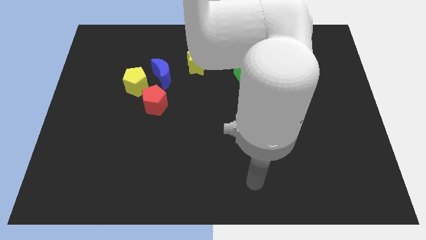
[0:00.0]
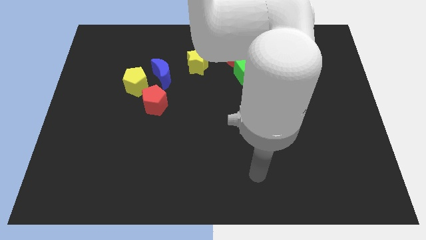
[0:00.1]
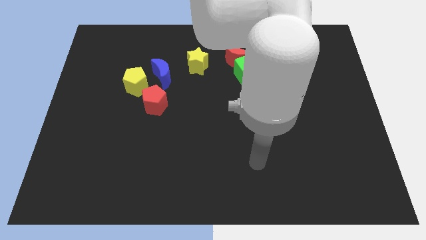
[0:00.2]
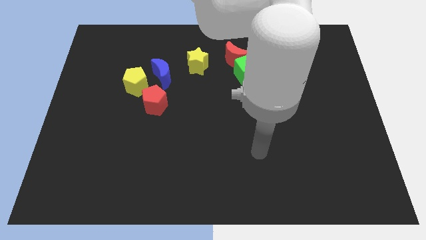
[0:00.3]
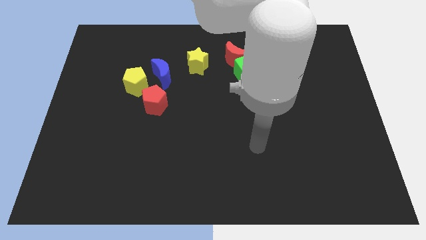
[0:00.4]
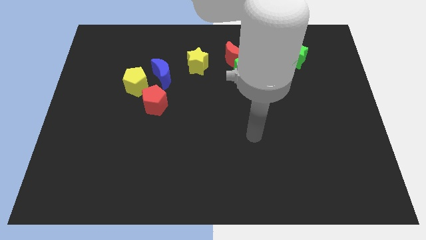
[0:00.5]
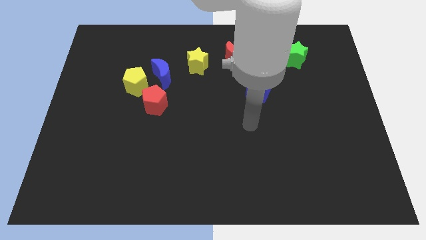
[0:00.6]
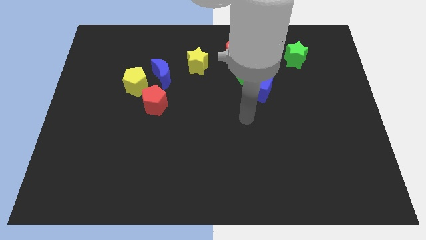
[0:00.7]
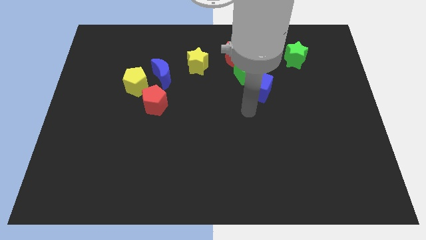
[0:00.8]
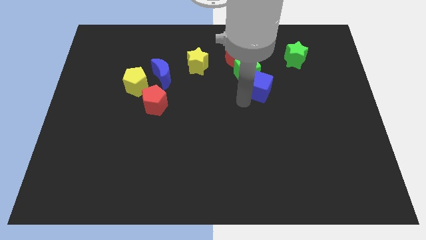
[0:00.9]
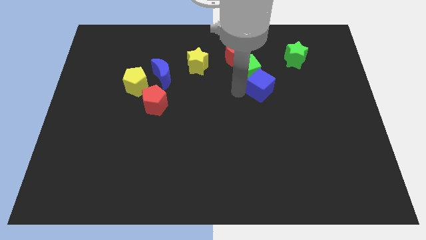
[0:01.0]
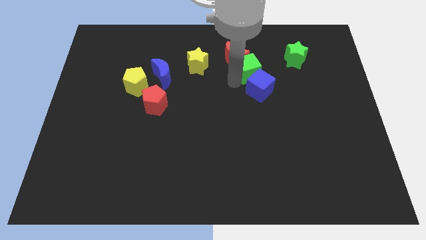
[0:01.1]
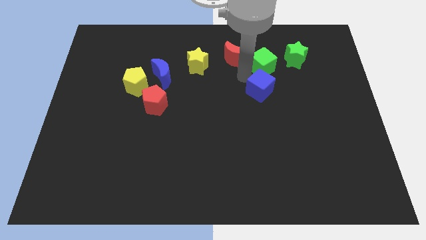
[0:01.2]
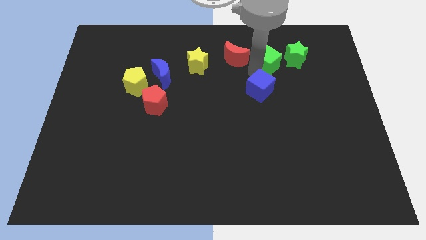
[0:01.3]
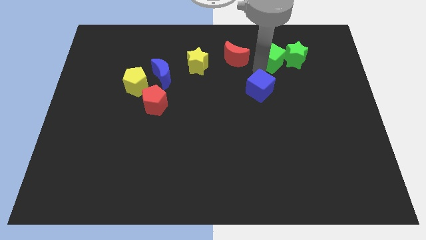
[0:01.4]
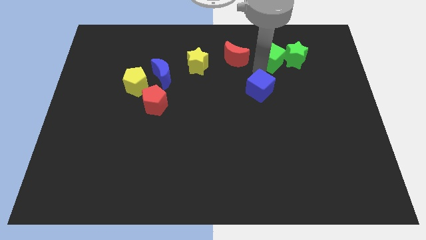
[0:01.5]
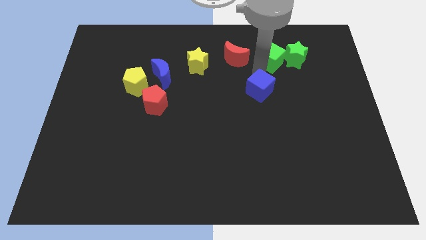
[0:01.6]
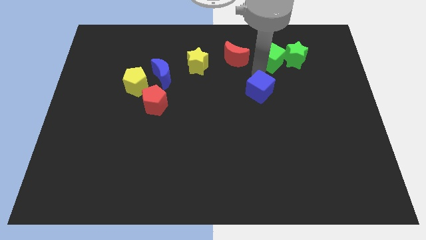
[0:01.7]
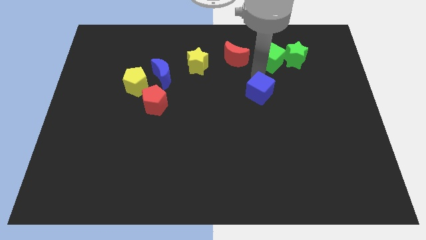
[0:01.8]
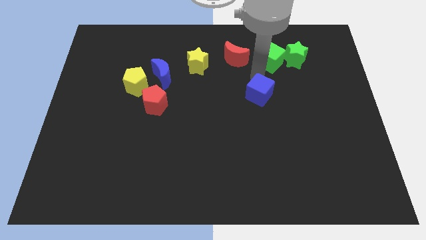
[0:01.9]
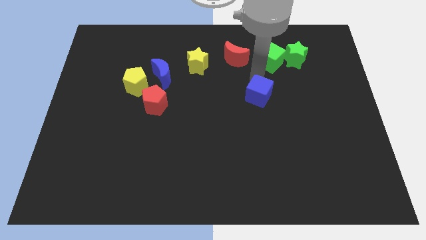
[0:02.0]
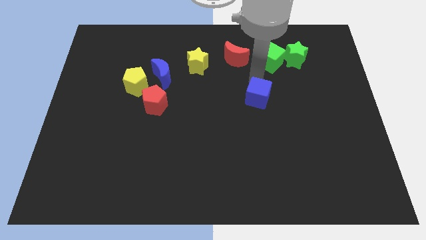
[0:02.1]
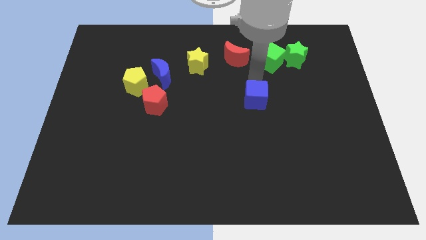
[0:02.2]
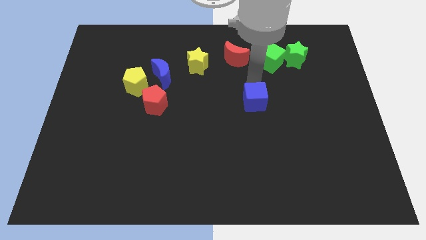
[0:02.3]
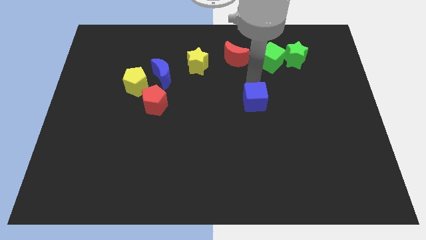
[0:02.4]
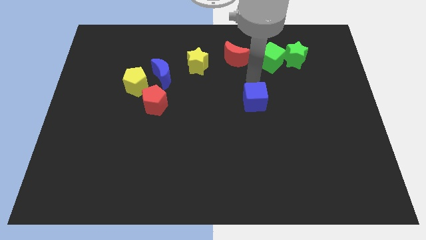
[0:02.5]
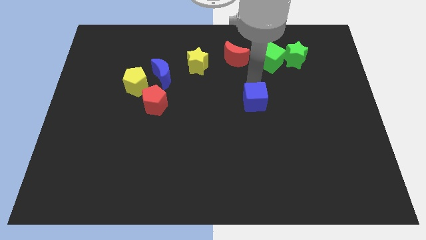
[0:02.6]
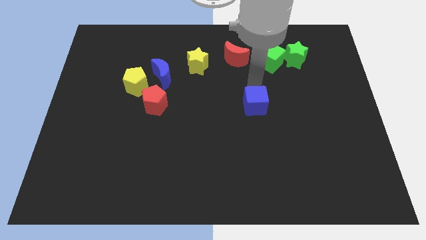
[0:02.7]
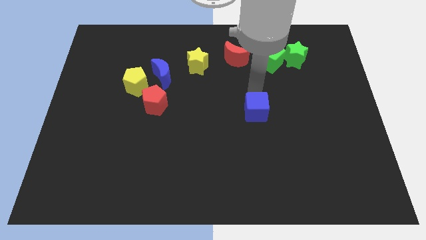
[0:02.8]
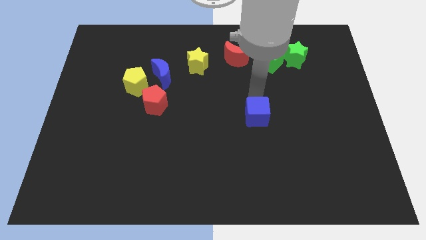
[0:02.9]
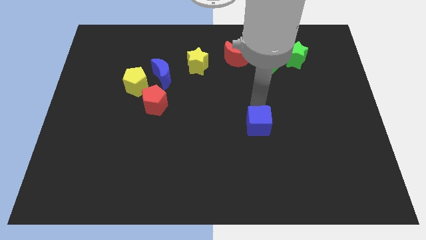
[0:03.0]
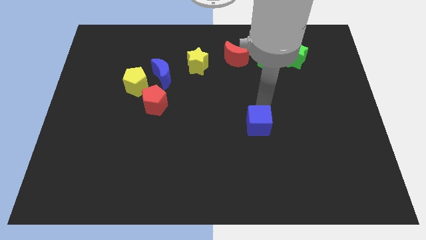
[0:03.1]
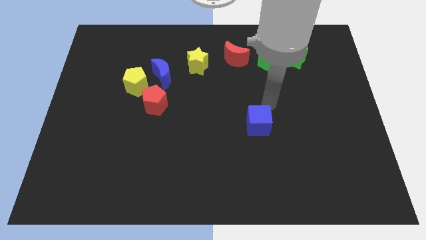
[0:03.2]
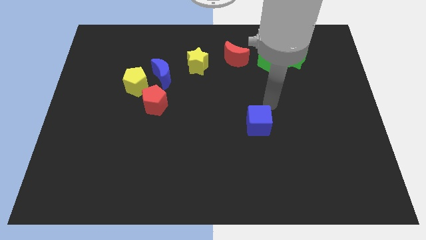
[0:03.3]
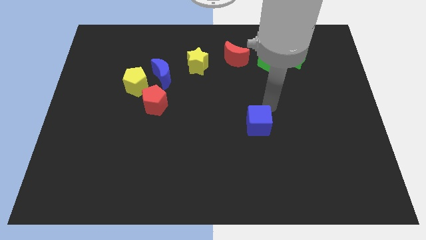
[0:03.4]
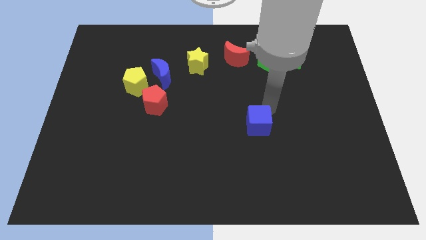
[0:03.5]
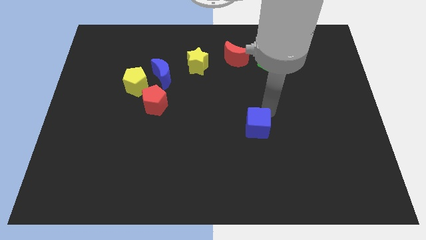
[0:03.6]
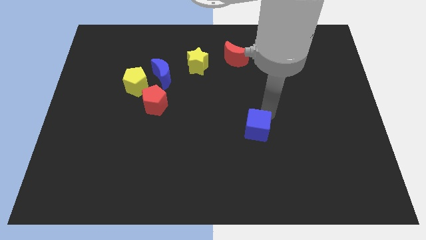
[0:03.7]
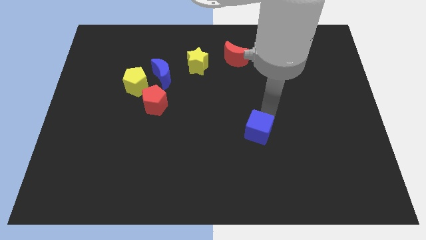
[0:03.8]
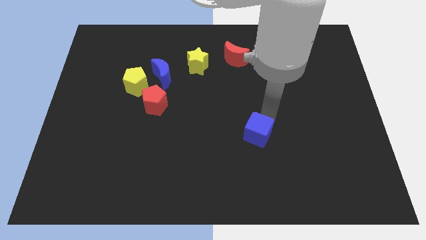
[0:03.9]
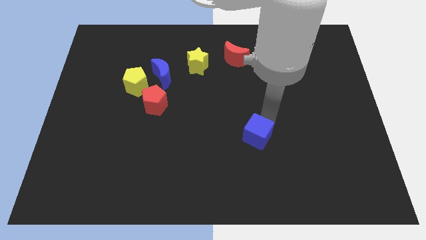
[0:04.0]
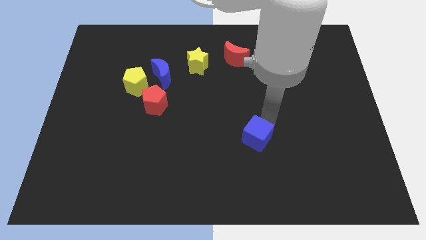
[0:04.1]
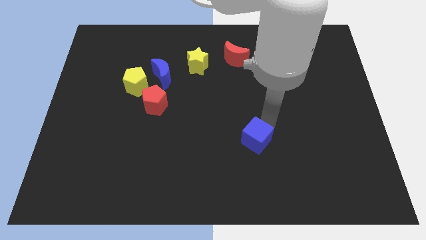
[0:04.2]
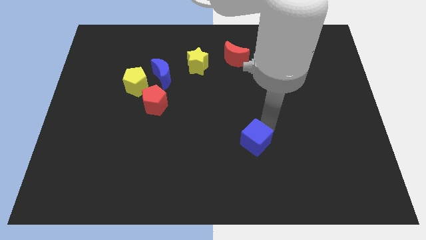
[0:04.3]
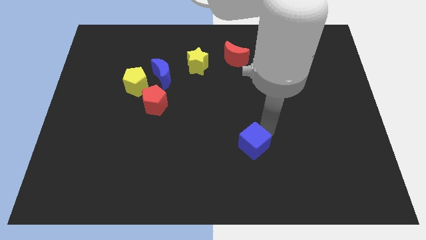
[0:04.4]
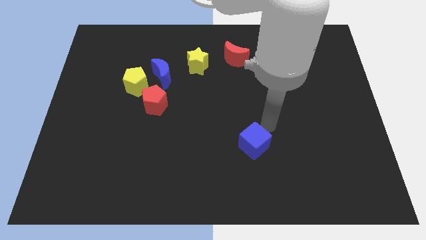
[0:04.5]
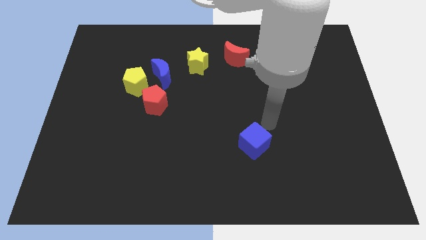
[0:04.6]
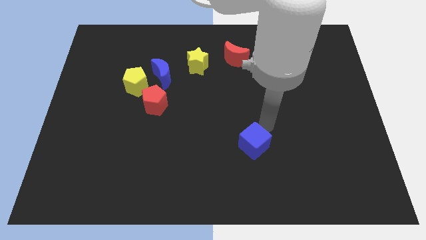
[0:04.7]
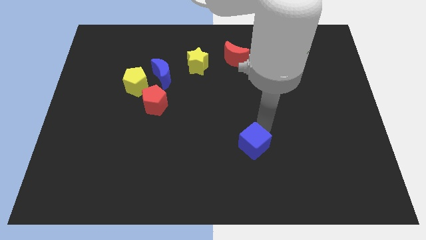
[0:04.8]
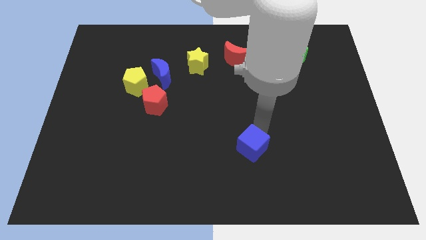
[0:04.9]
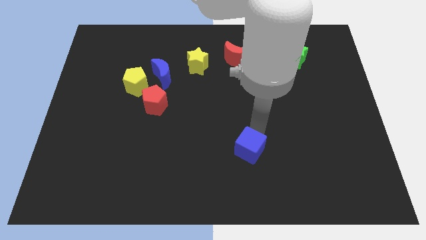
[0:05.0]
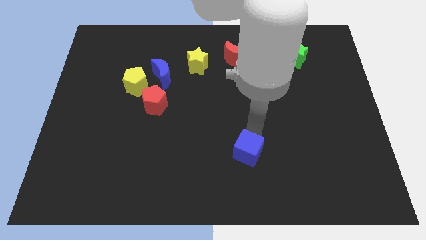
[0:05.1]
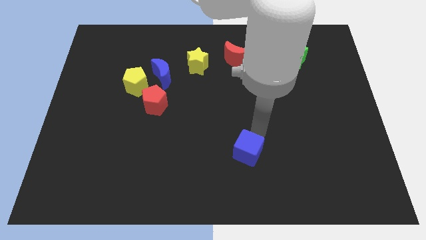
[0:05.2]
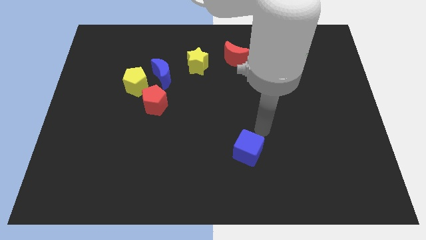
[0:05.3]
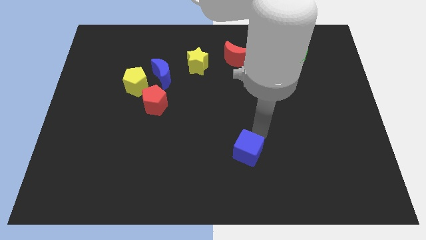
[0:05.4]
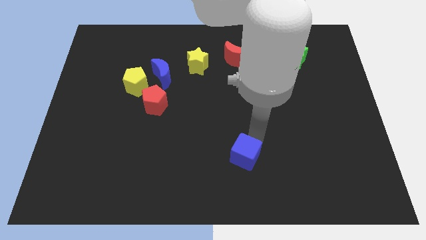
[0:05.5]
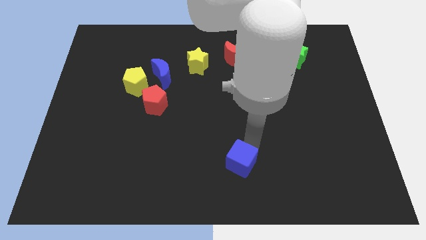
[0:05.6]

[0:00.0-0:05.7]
put the blue cube to the bottom side

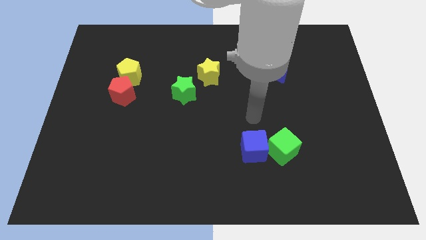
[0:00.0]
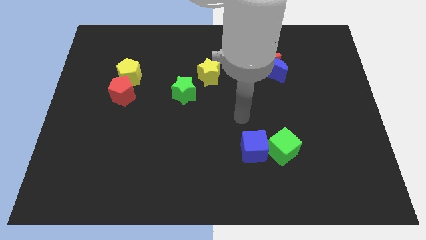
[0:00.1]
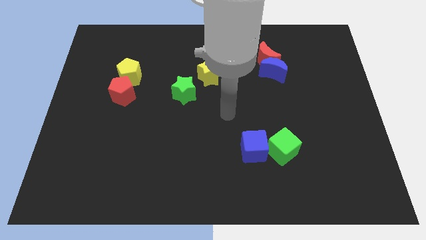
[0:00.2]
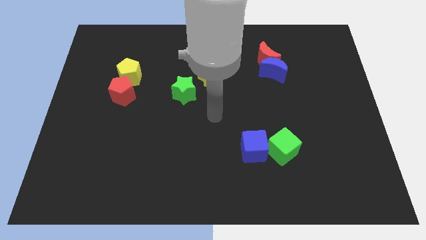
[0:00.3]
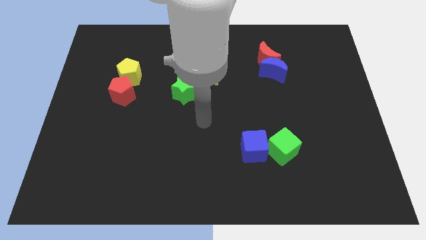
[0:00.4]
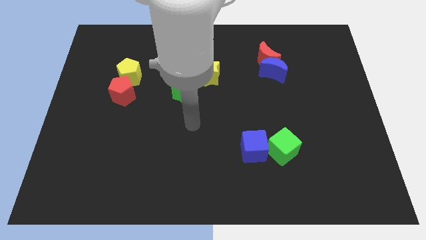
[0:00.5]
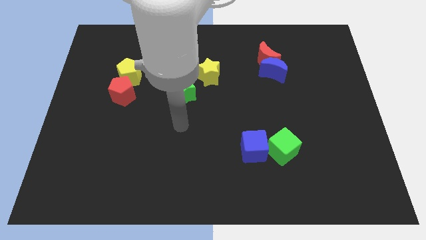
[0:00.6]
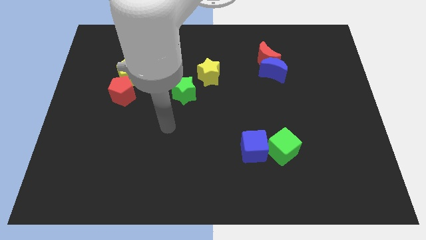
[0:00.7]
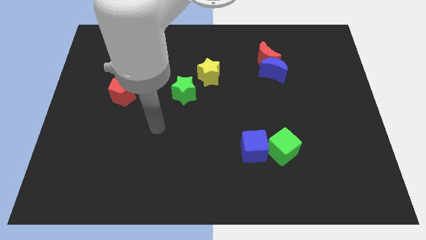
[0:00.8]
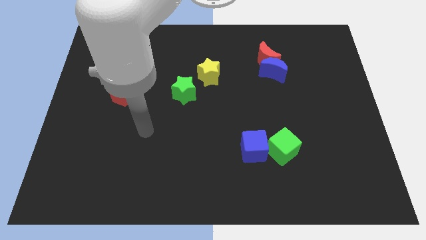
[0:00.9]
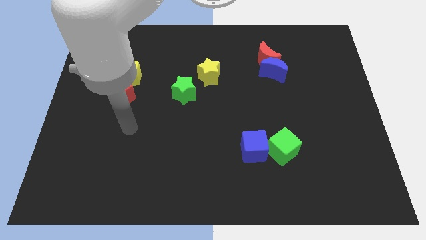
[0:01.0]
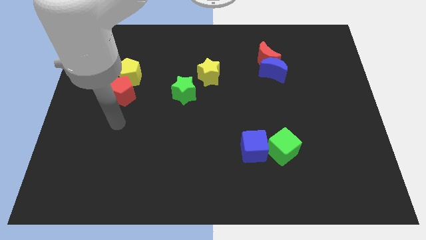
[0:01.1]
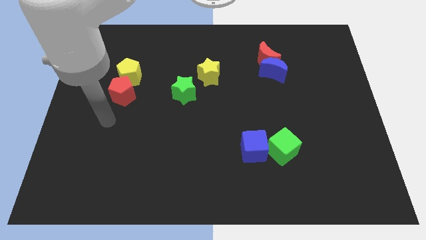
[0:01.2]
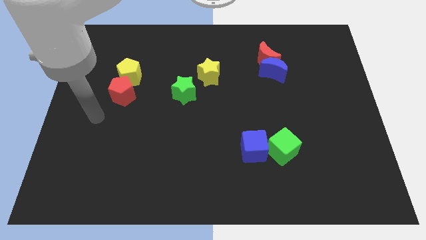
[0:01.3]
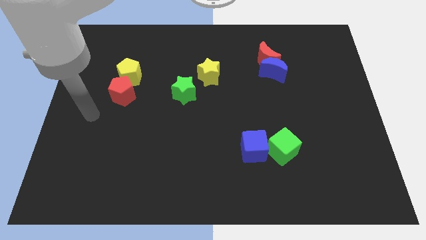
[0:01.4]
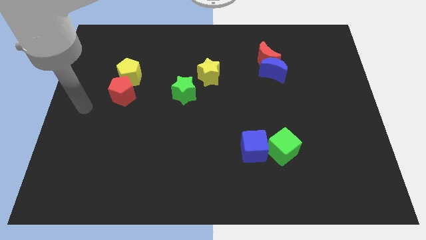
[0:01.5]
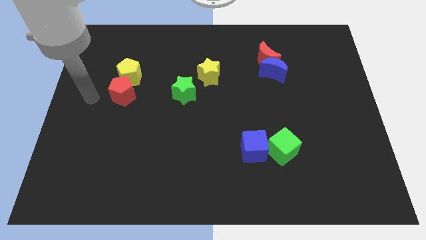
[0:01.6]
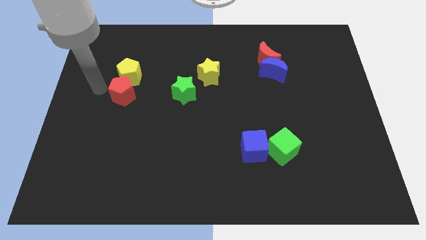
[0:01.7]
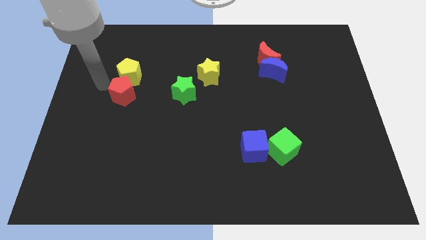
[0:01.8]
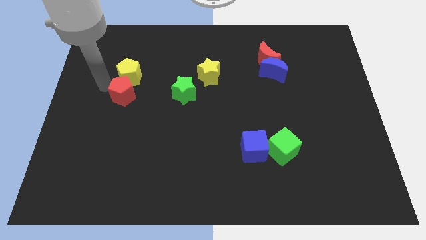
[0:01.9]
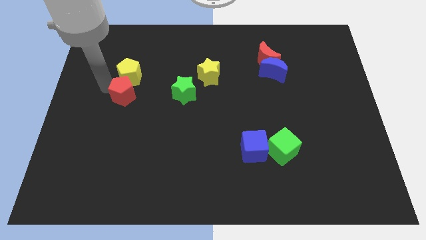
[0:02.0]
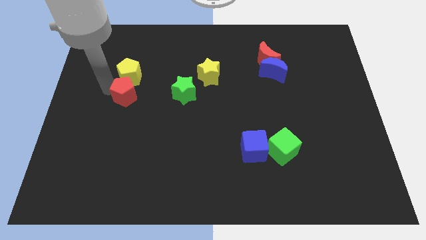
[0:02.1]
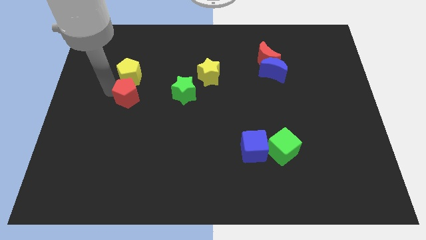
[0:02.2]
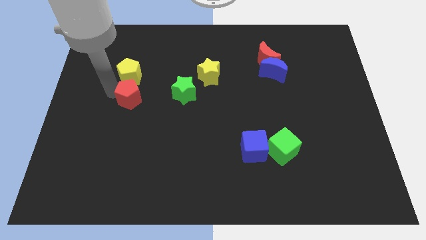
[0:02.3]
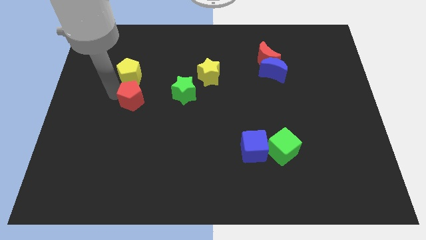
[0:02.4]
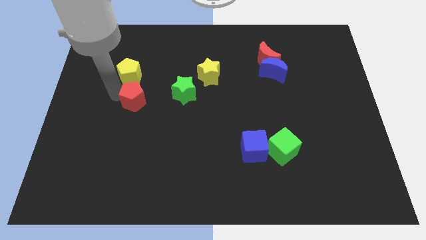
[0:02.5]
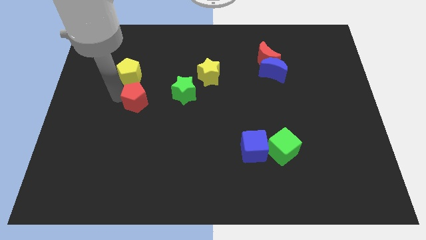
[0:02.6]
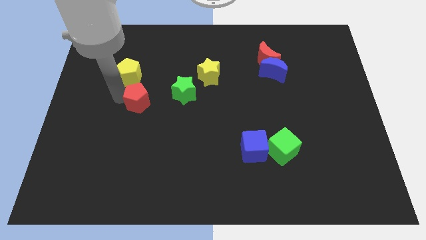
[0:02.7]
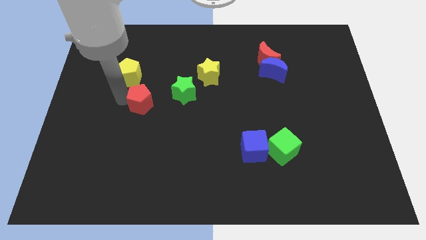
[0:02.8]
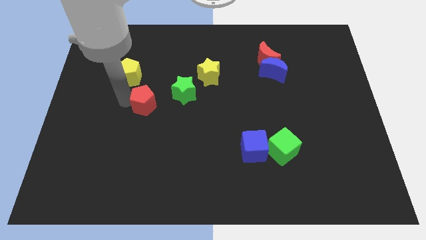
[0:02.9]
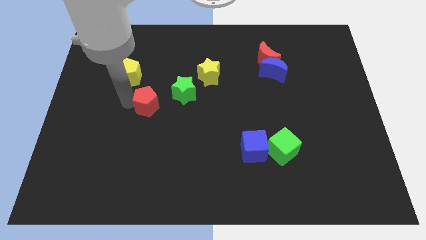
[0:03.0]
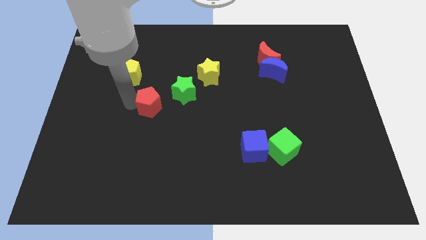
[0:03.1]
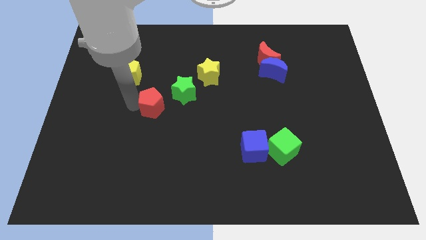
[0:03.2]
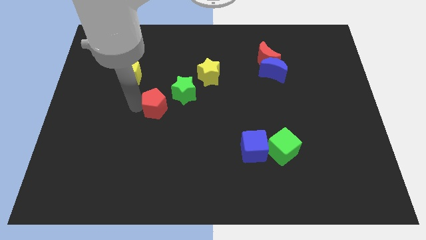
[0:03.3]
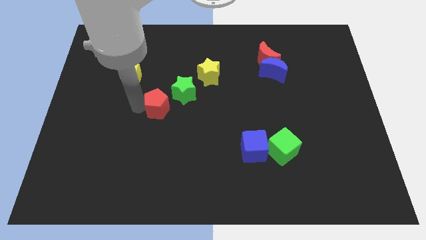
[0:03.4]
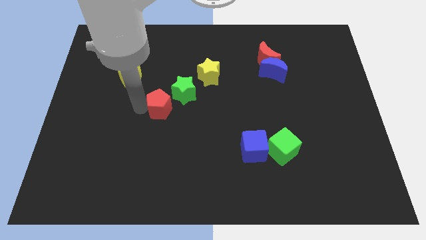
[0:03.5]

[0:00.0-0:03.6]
slide the red pentagon to the center of the board
